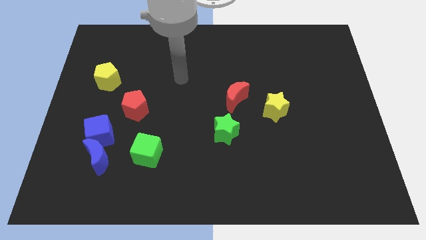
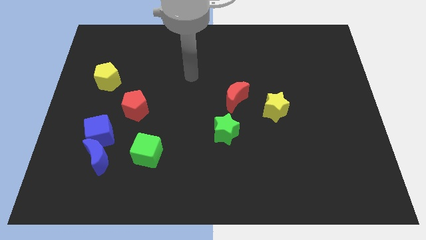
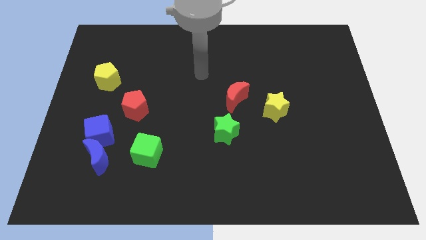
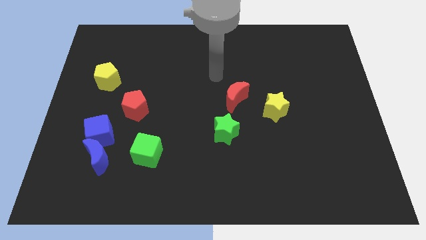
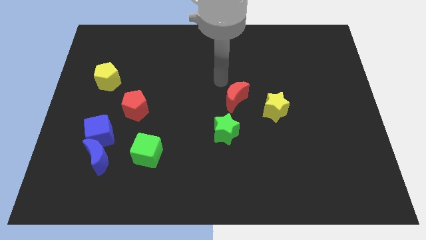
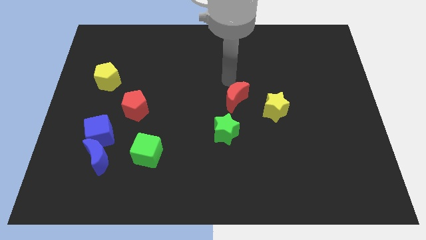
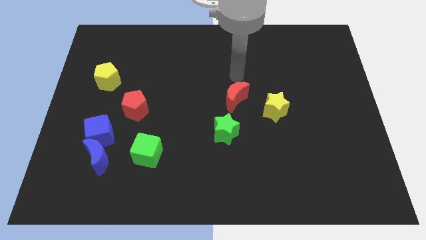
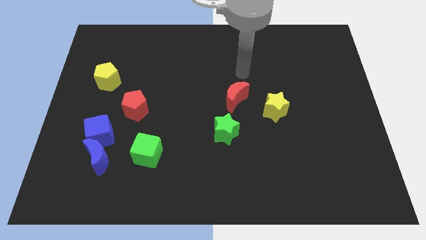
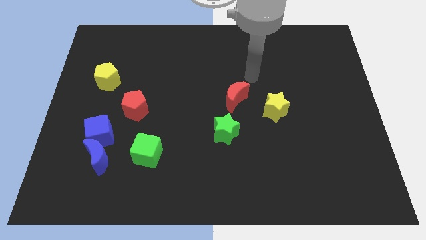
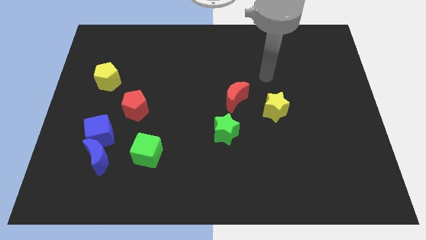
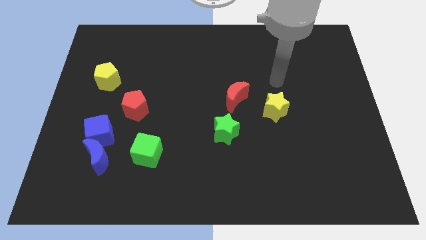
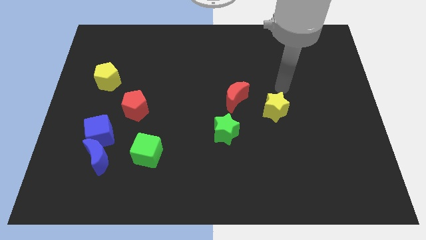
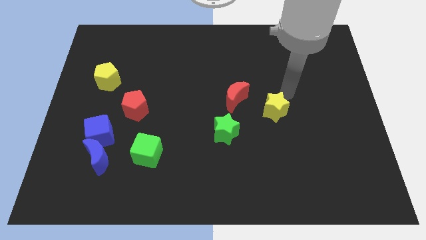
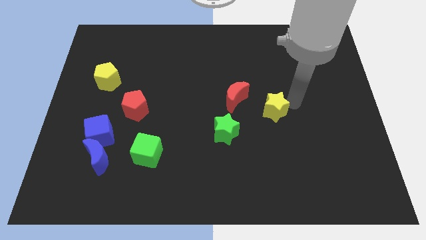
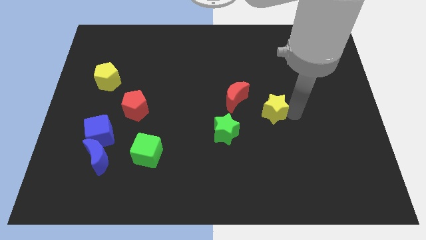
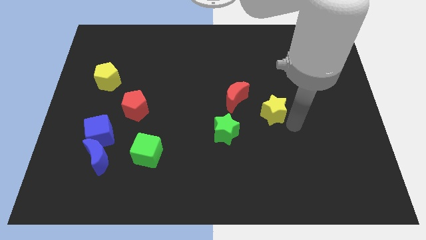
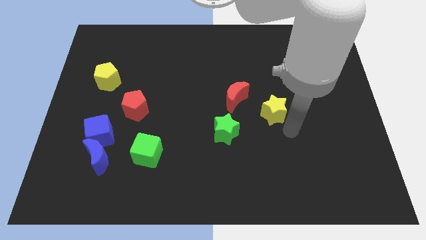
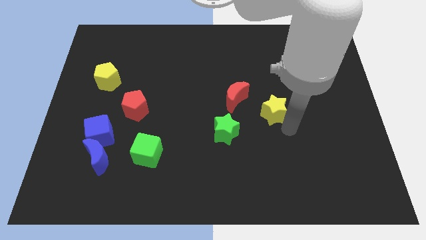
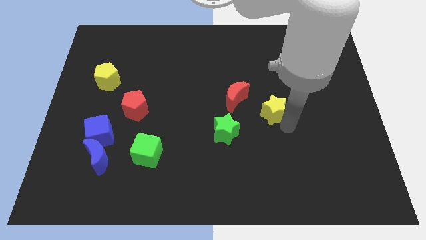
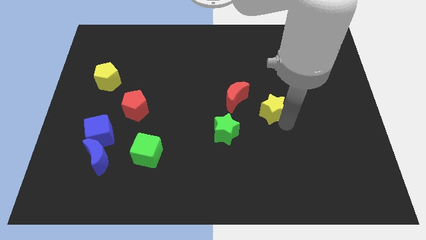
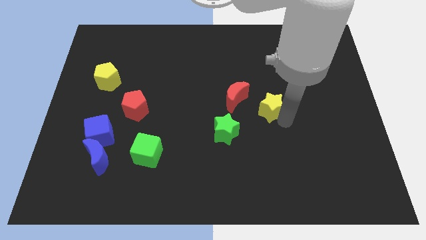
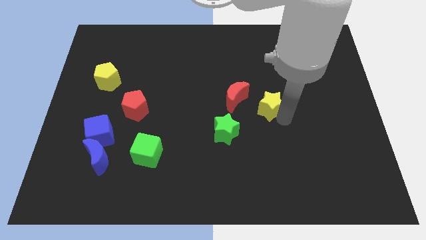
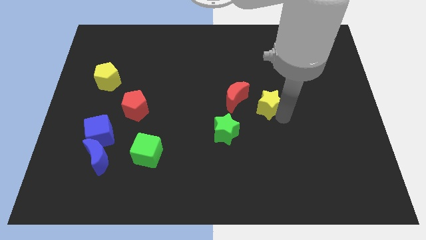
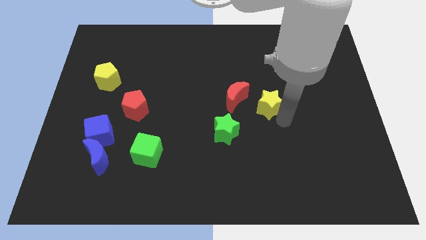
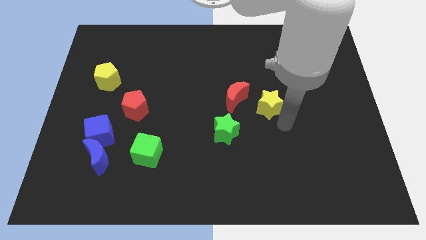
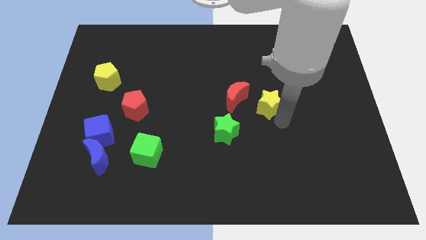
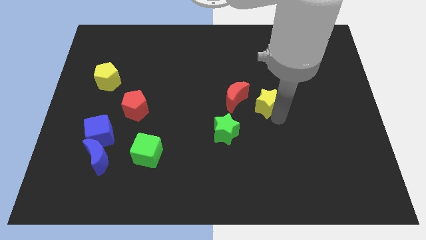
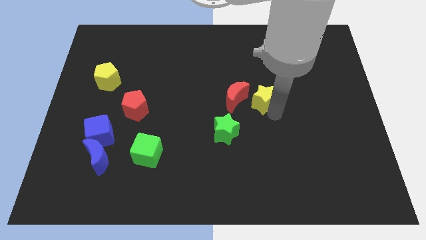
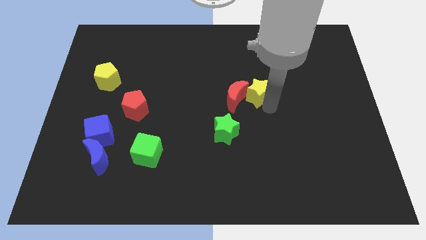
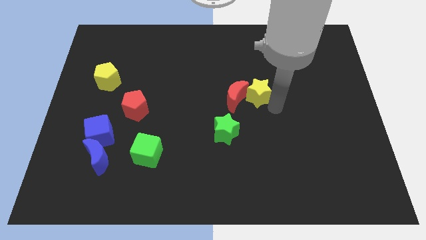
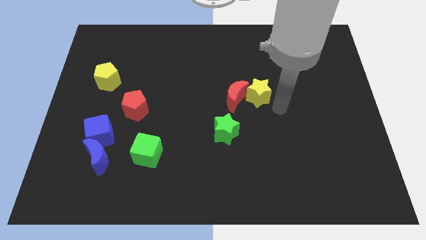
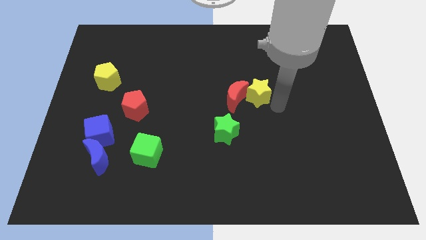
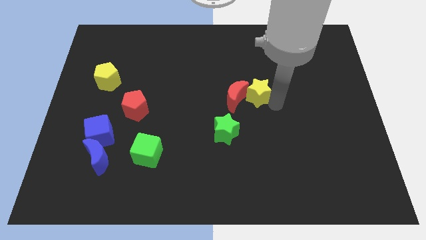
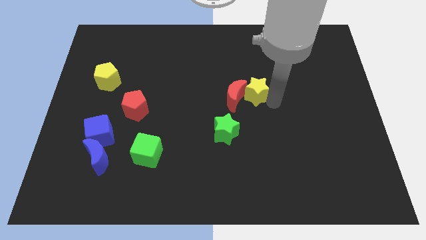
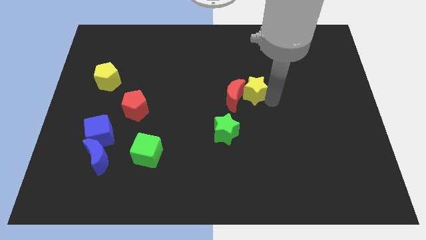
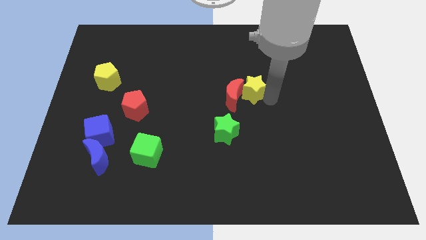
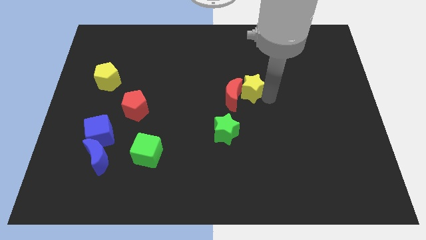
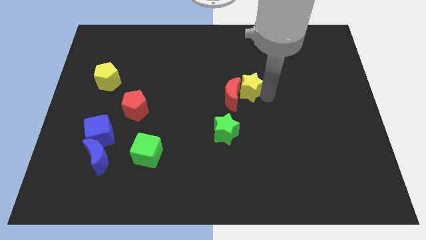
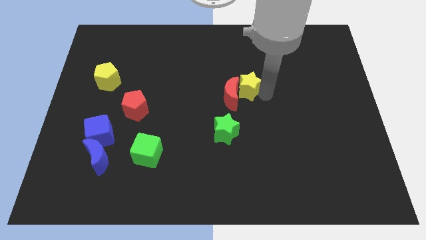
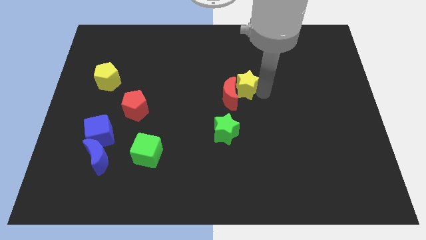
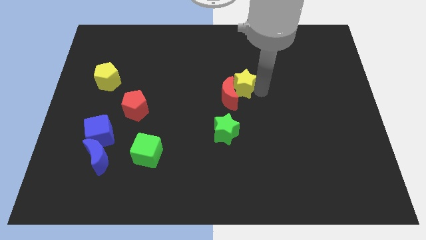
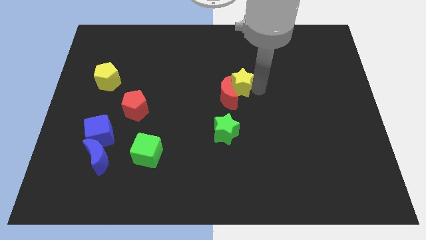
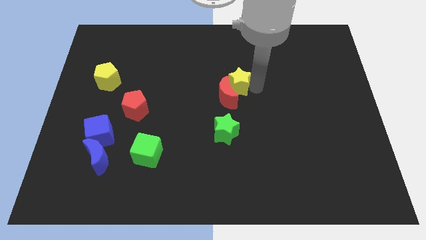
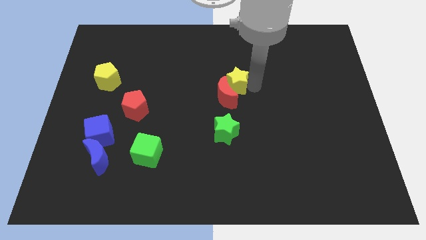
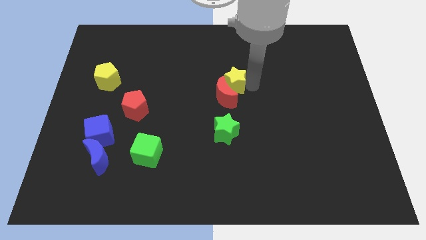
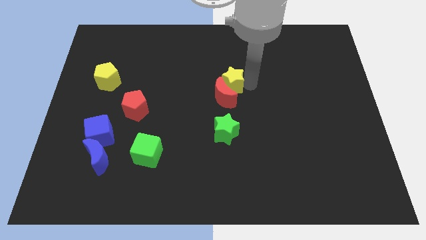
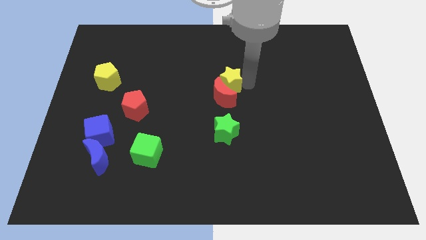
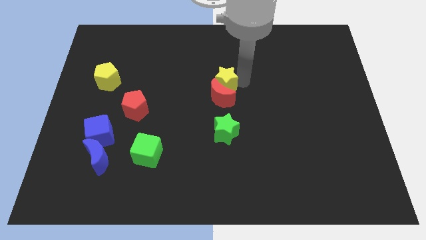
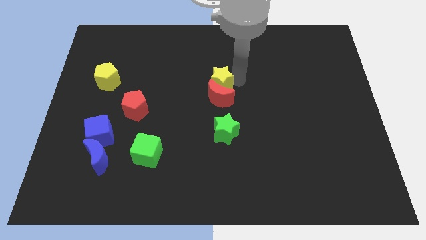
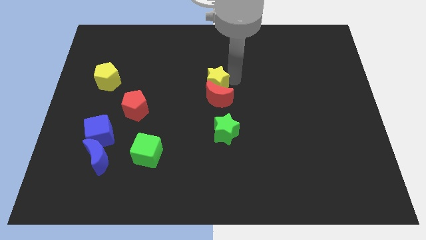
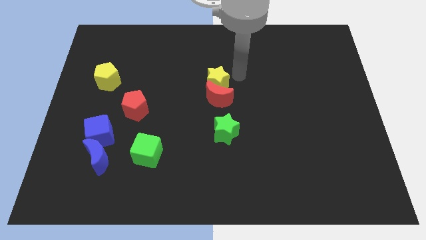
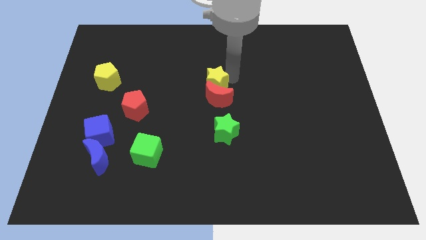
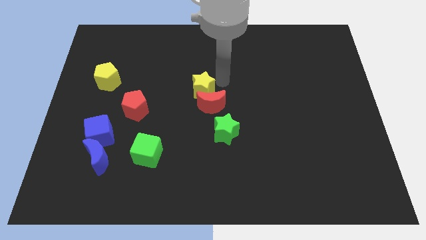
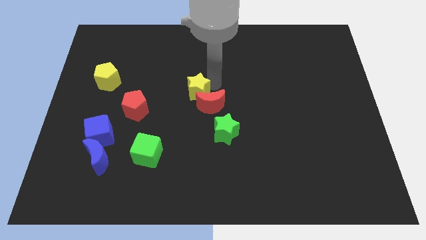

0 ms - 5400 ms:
move the yellow star just left of the red moon

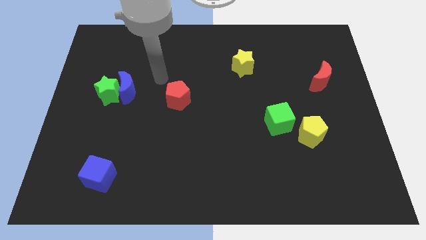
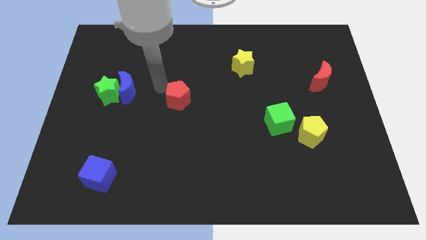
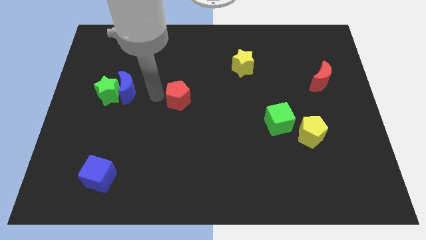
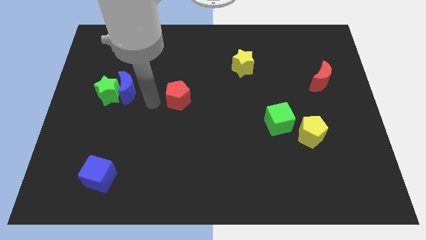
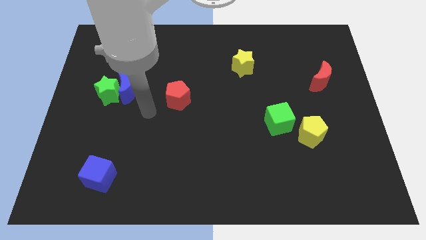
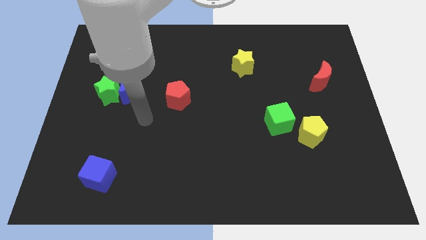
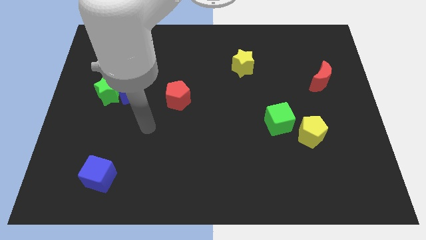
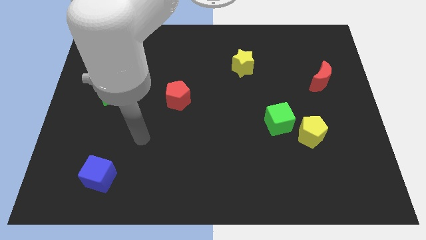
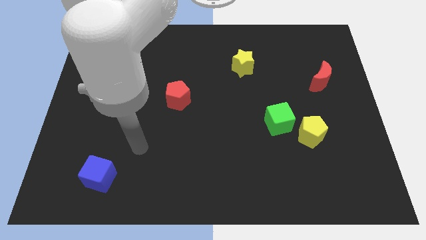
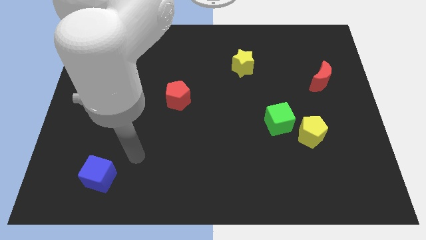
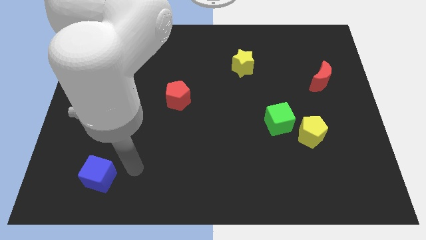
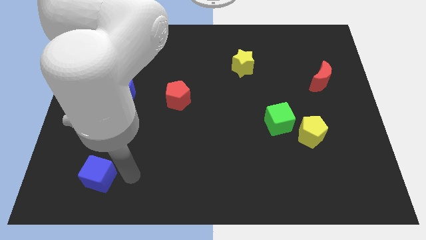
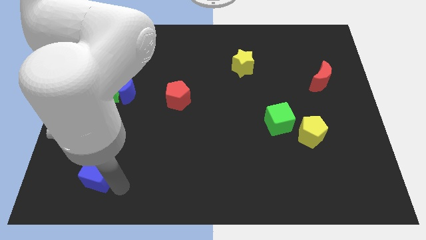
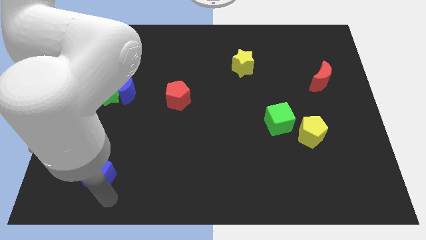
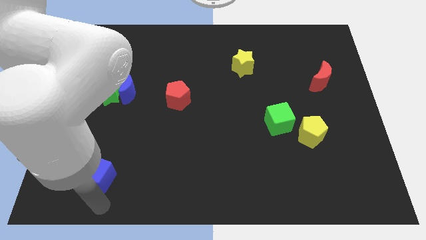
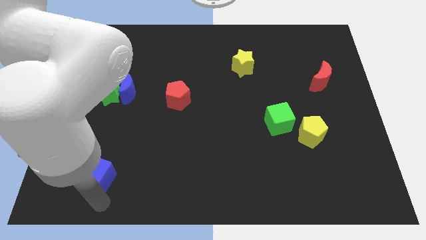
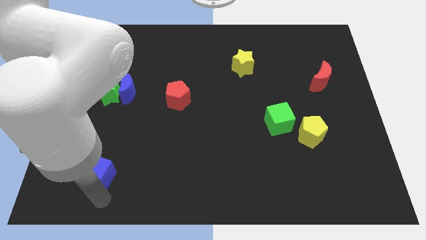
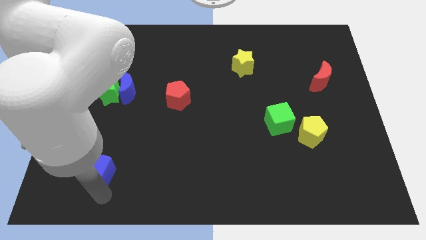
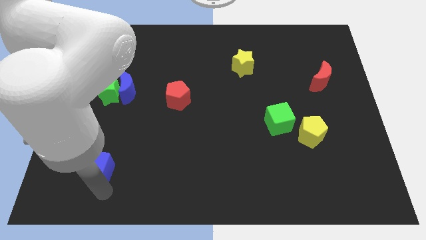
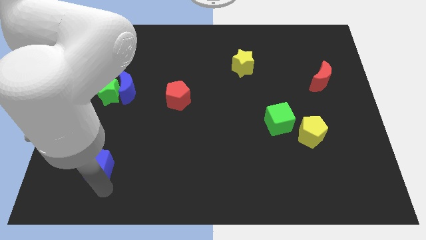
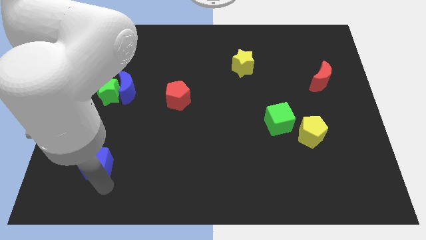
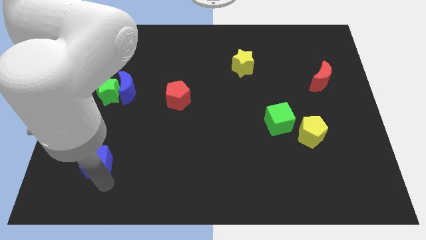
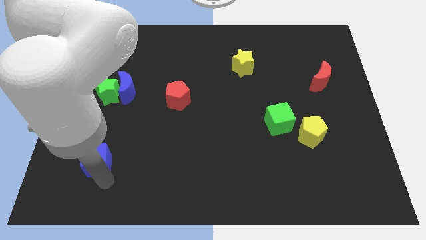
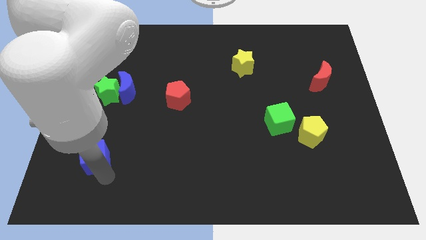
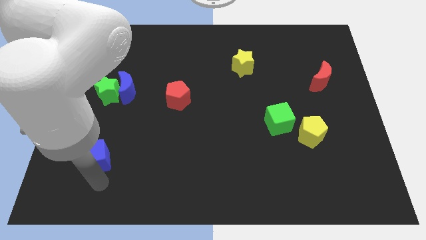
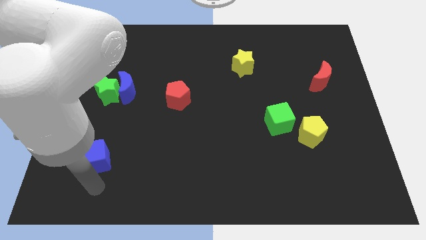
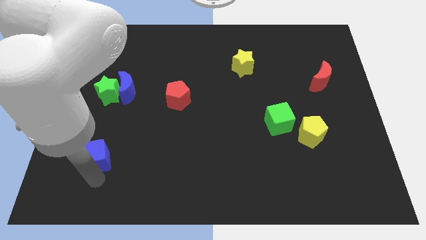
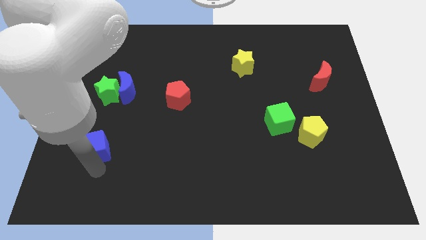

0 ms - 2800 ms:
slide the blue cube to the bottom of the green star
